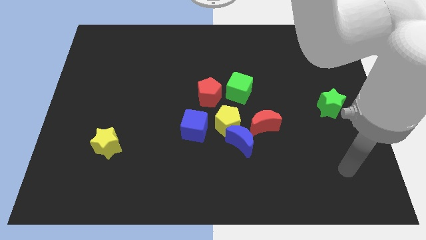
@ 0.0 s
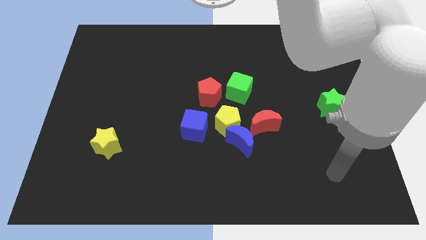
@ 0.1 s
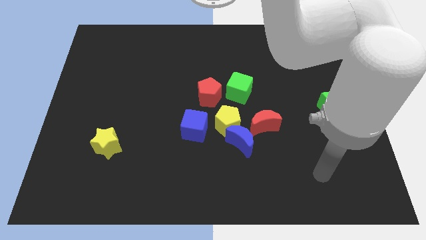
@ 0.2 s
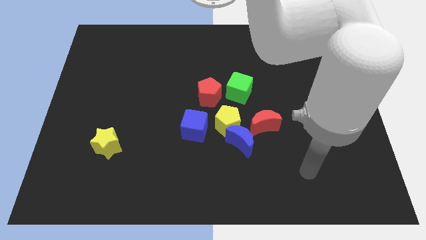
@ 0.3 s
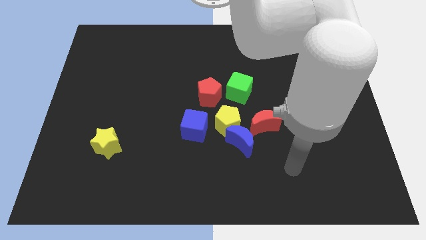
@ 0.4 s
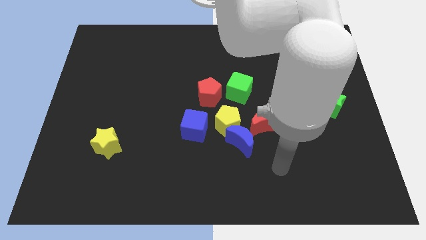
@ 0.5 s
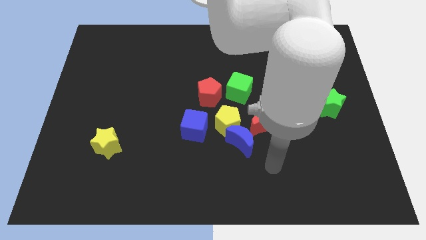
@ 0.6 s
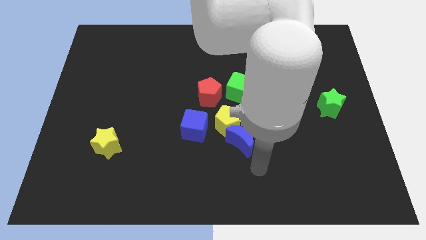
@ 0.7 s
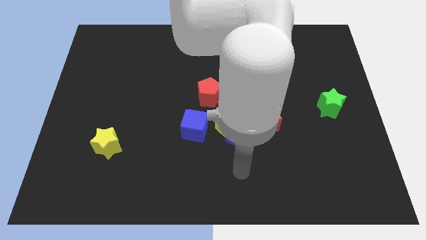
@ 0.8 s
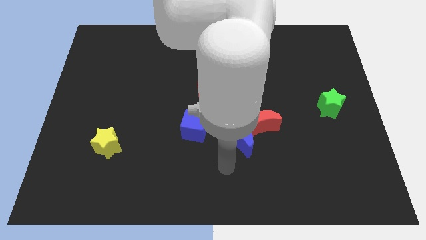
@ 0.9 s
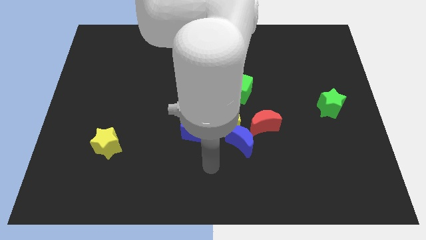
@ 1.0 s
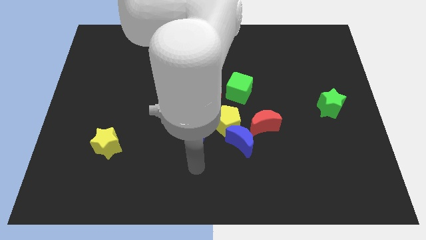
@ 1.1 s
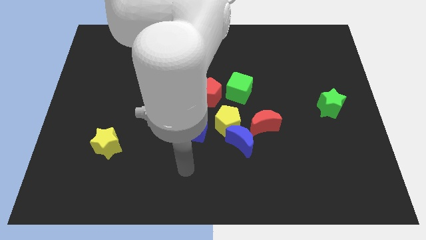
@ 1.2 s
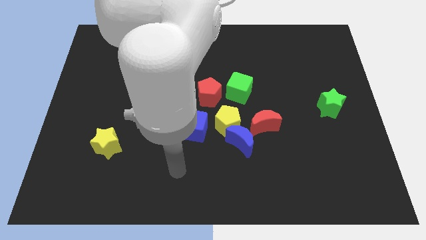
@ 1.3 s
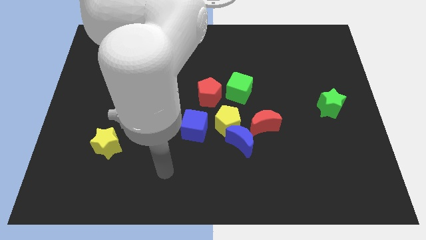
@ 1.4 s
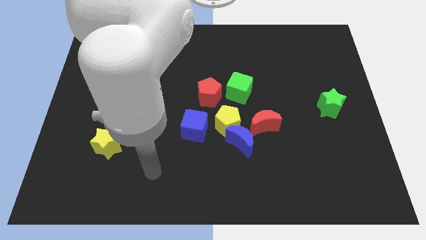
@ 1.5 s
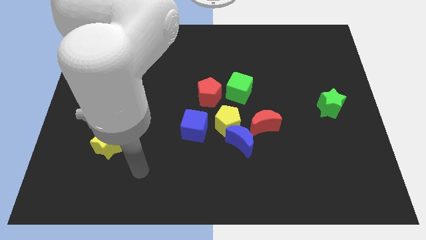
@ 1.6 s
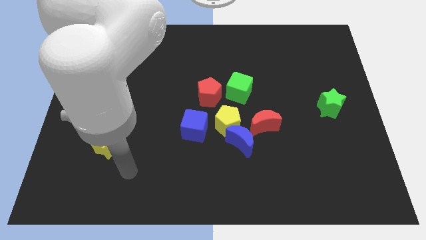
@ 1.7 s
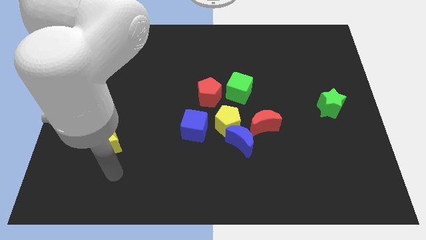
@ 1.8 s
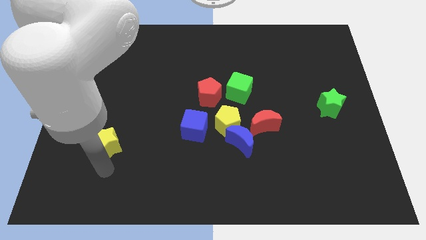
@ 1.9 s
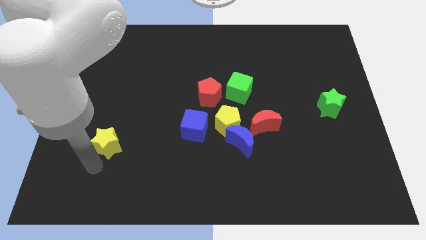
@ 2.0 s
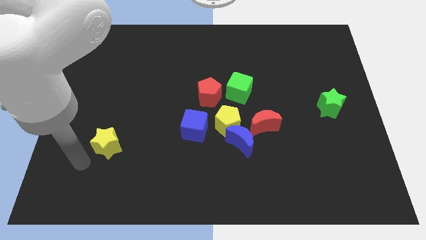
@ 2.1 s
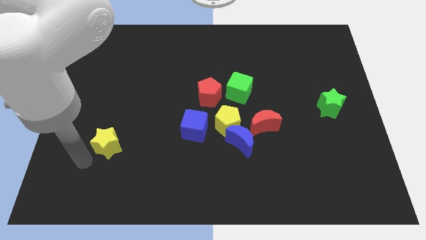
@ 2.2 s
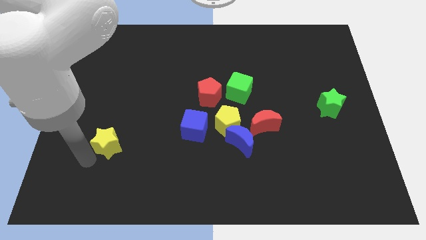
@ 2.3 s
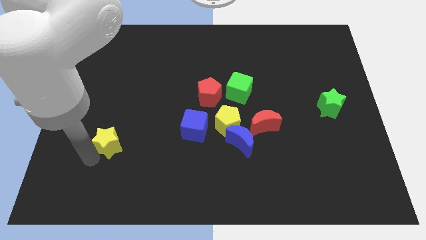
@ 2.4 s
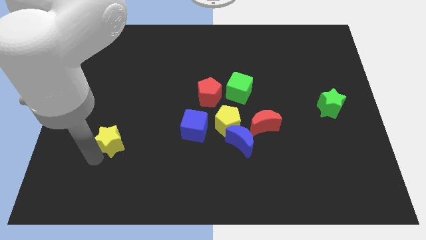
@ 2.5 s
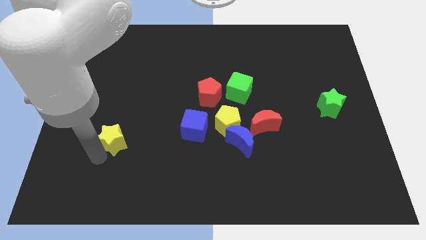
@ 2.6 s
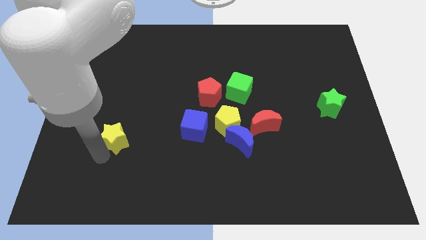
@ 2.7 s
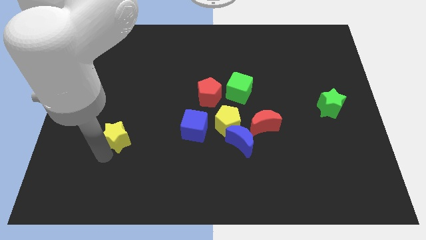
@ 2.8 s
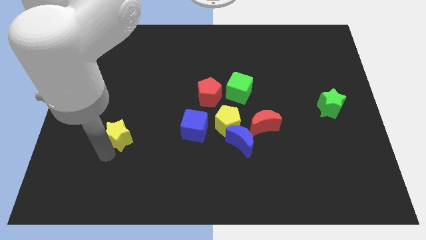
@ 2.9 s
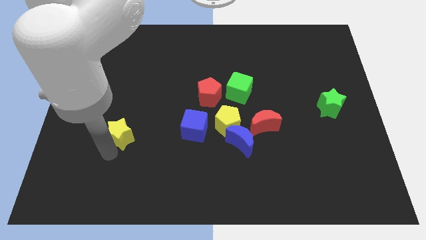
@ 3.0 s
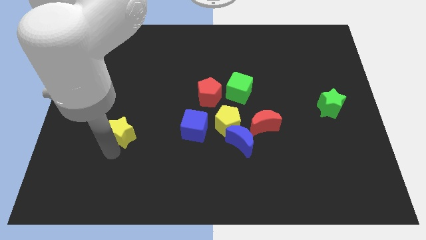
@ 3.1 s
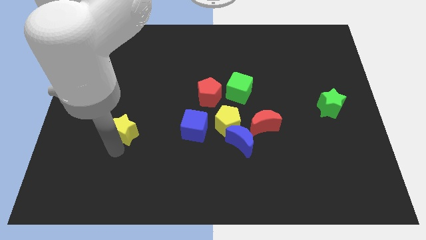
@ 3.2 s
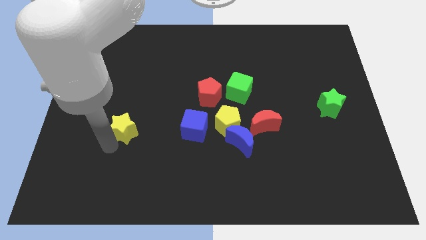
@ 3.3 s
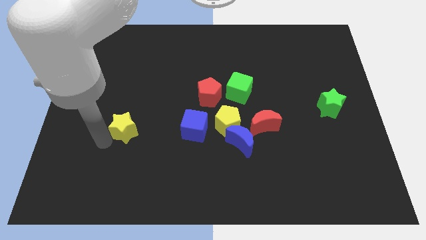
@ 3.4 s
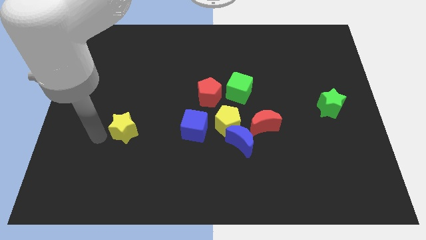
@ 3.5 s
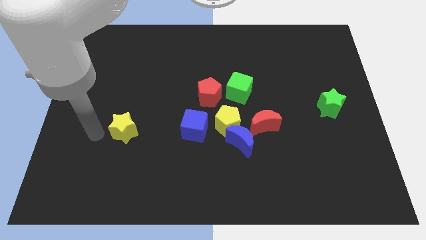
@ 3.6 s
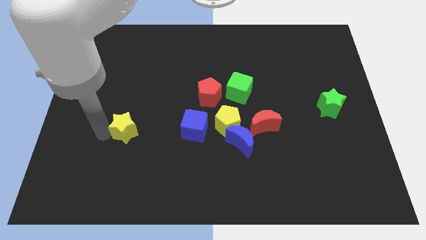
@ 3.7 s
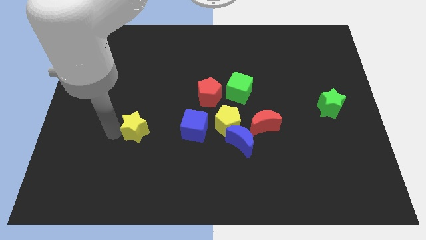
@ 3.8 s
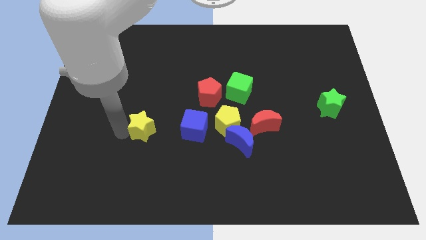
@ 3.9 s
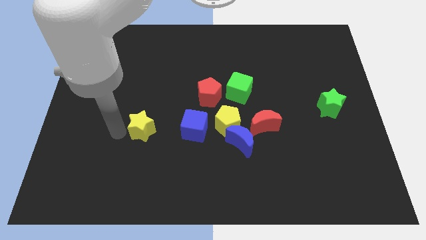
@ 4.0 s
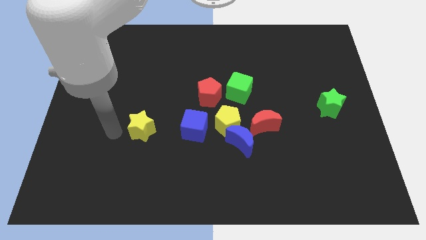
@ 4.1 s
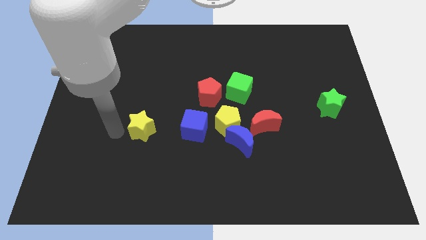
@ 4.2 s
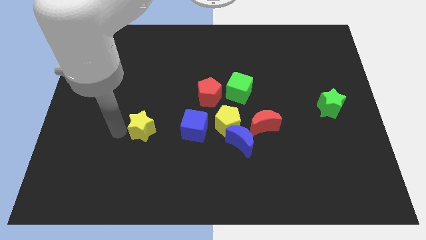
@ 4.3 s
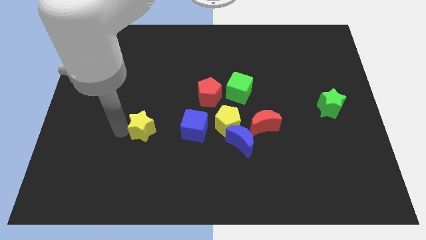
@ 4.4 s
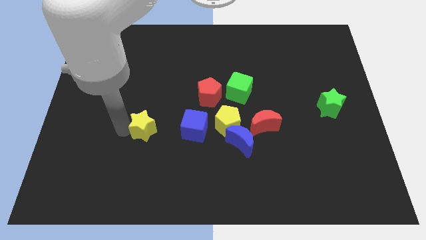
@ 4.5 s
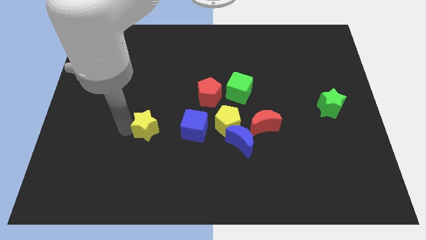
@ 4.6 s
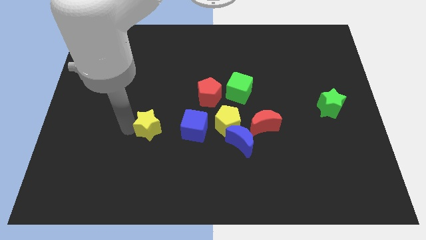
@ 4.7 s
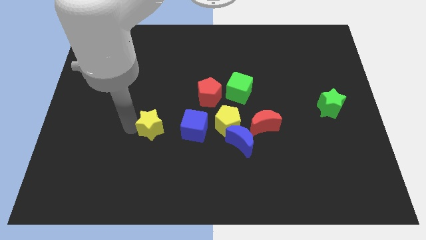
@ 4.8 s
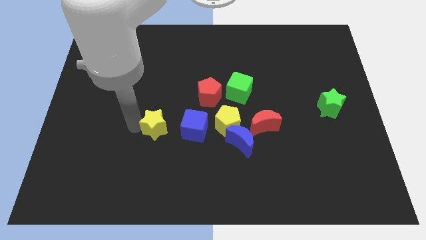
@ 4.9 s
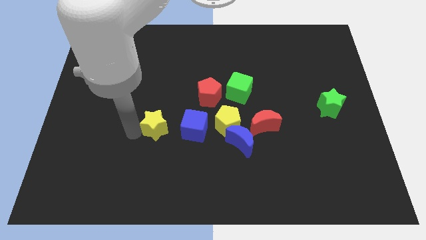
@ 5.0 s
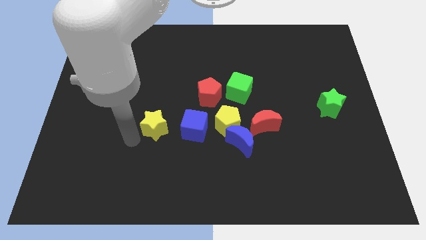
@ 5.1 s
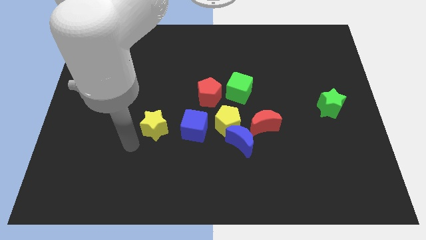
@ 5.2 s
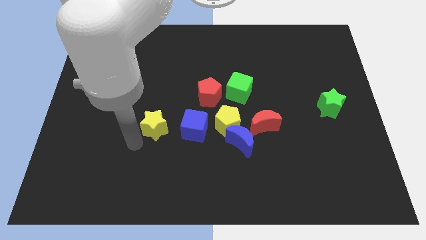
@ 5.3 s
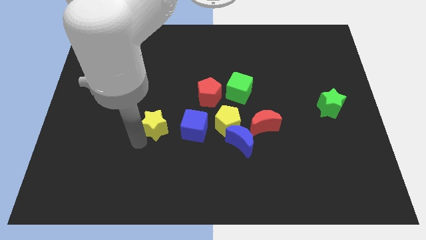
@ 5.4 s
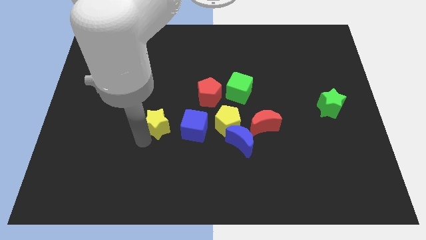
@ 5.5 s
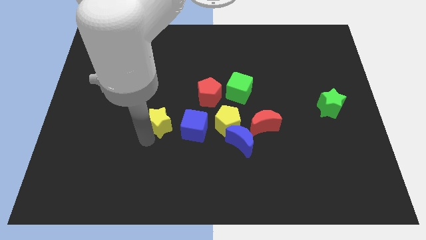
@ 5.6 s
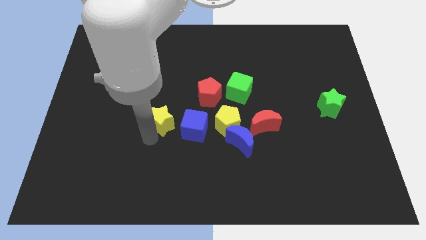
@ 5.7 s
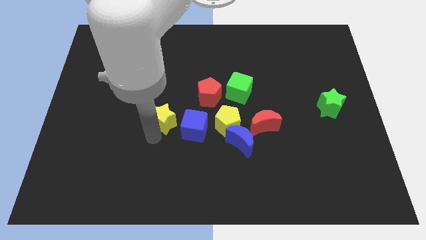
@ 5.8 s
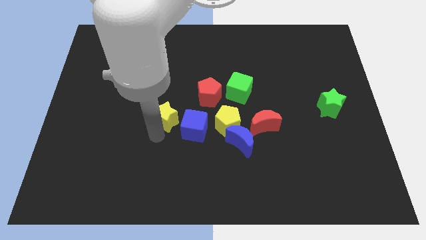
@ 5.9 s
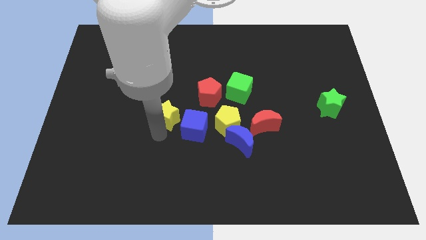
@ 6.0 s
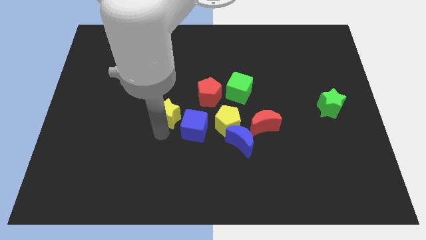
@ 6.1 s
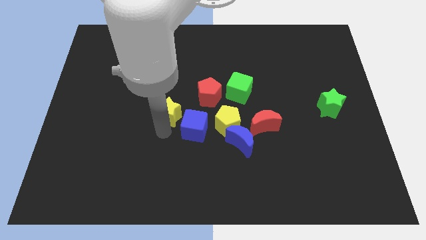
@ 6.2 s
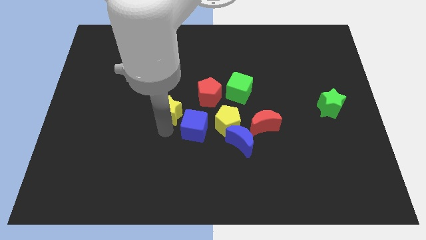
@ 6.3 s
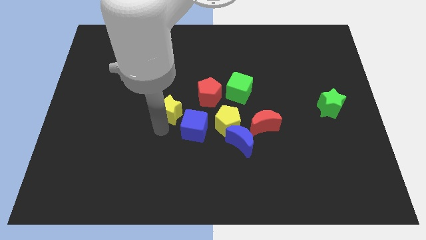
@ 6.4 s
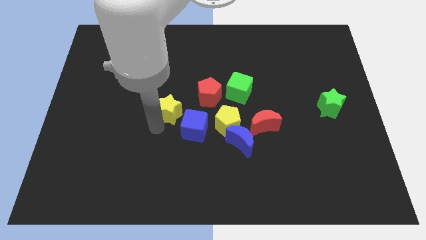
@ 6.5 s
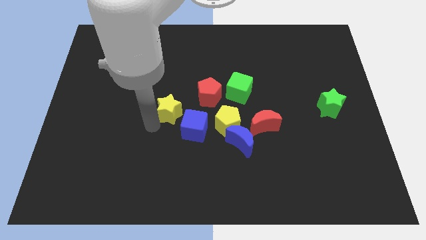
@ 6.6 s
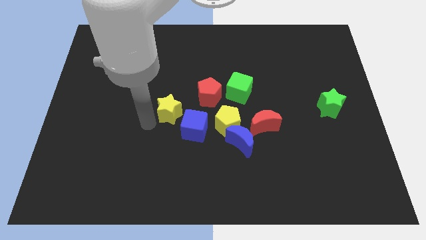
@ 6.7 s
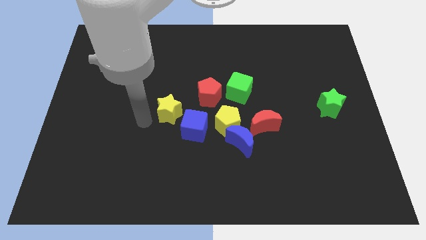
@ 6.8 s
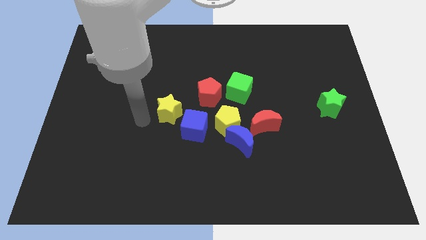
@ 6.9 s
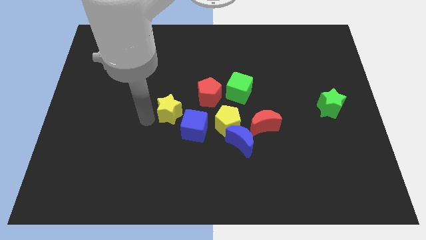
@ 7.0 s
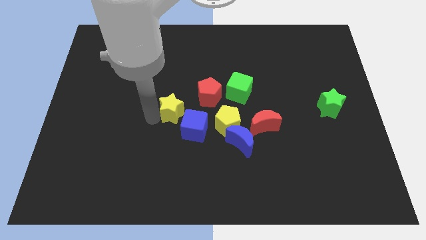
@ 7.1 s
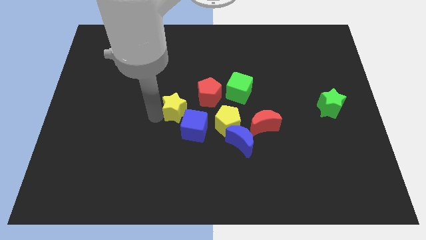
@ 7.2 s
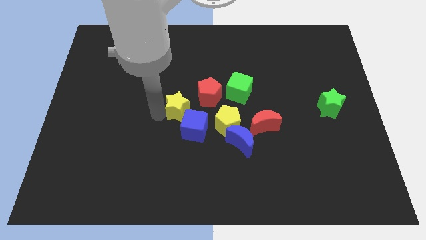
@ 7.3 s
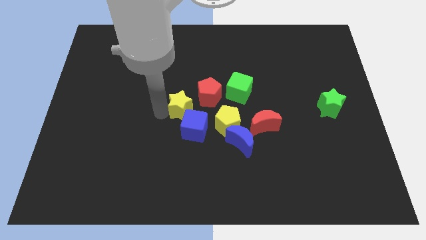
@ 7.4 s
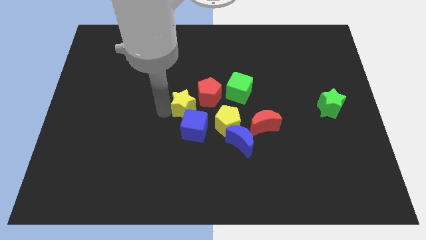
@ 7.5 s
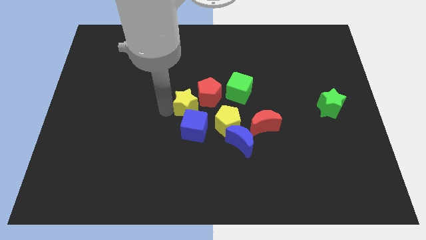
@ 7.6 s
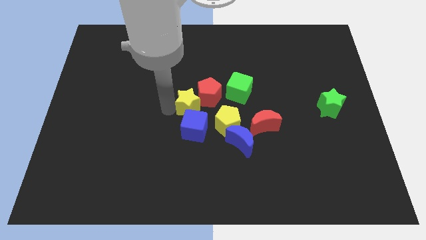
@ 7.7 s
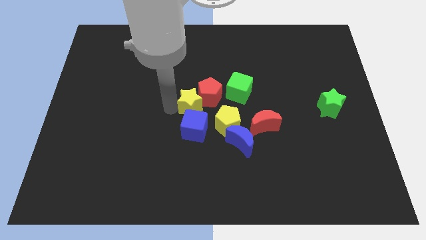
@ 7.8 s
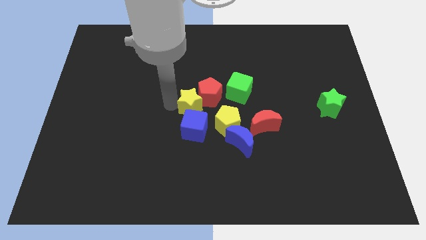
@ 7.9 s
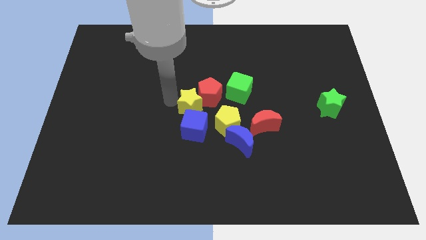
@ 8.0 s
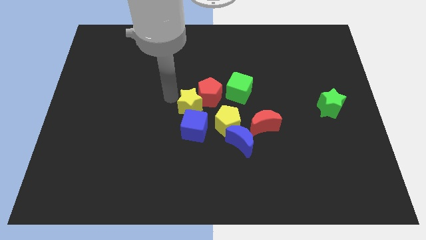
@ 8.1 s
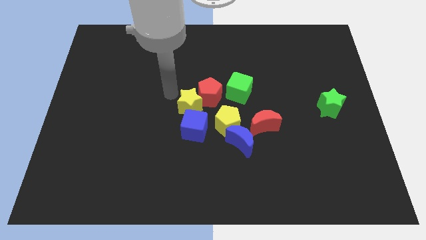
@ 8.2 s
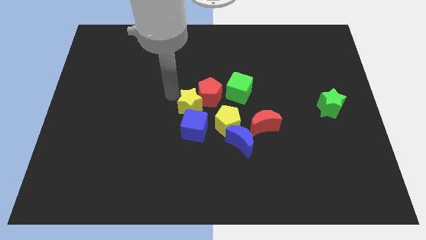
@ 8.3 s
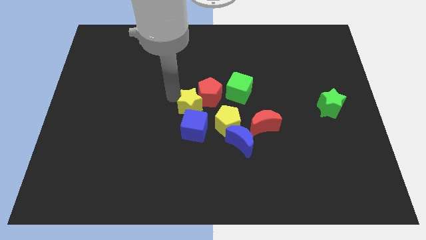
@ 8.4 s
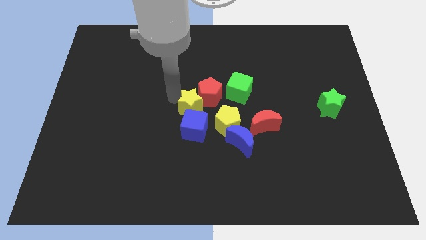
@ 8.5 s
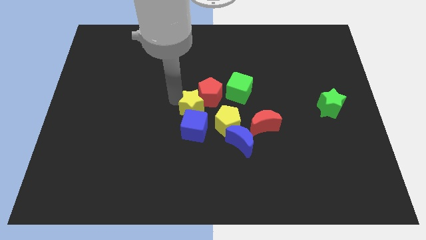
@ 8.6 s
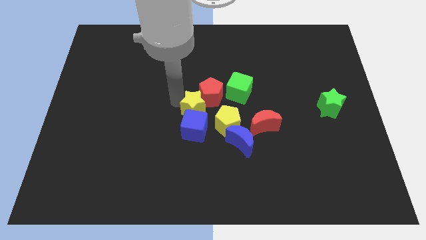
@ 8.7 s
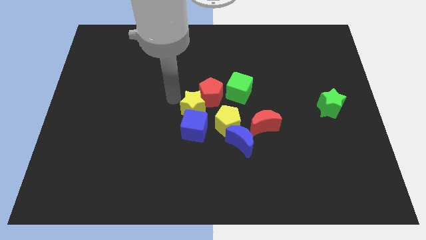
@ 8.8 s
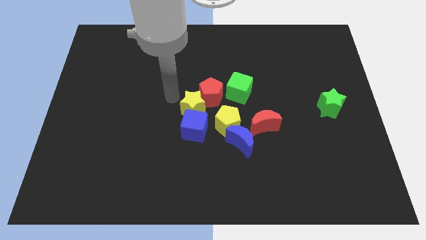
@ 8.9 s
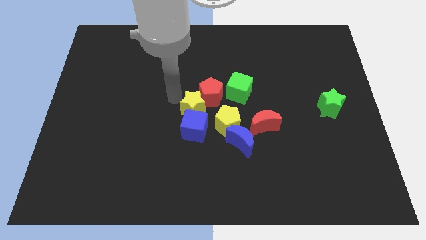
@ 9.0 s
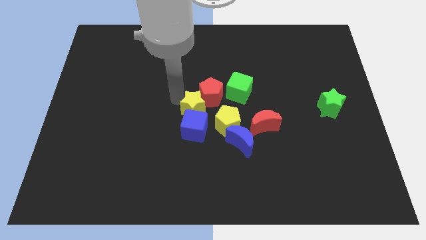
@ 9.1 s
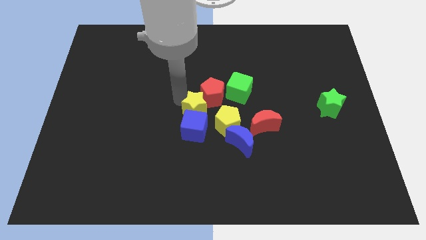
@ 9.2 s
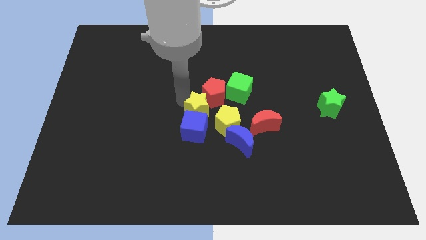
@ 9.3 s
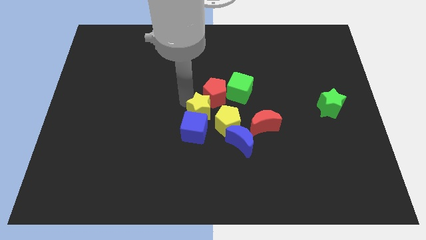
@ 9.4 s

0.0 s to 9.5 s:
slide the yellow star to the top left side of the blue moon
